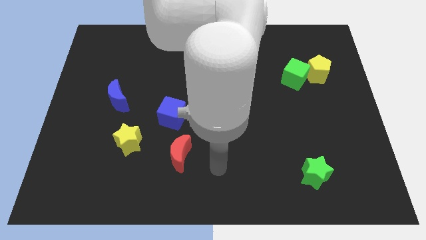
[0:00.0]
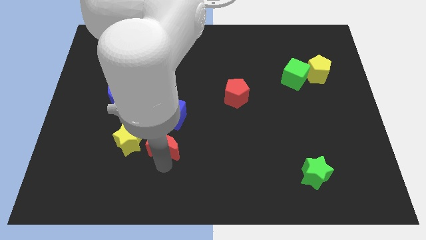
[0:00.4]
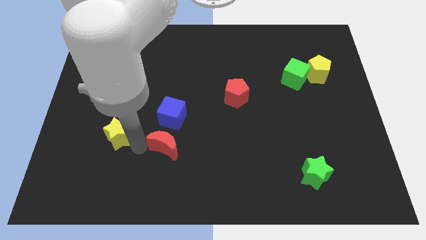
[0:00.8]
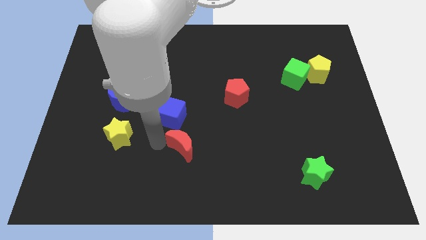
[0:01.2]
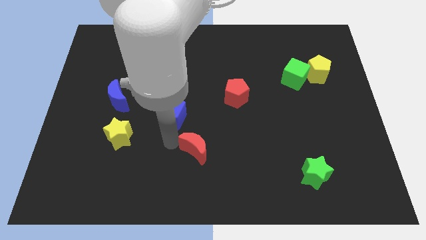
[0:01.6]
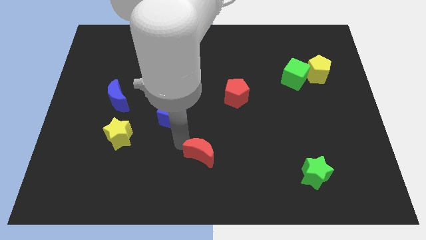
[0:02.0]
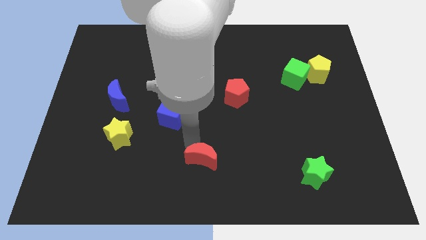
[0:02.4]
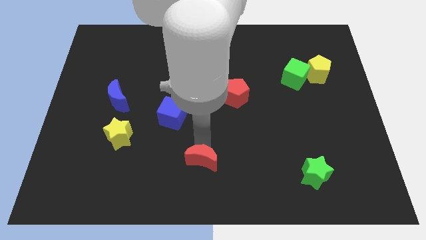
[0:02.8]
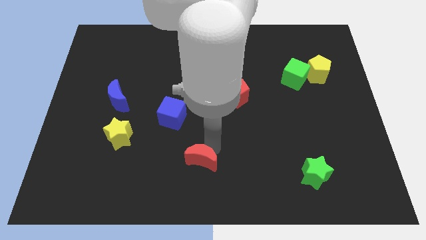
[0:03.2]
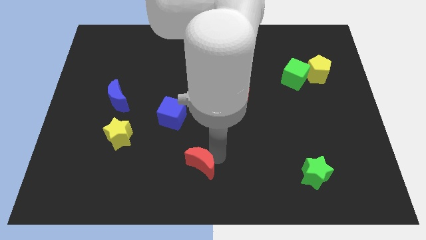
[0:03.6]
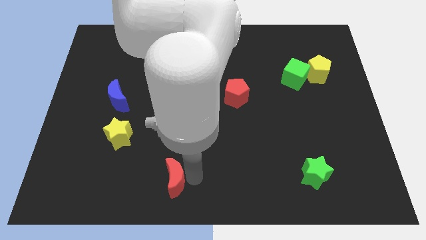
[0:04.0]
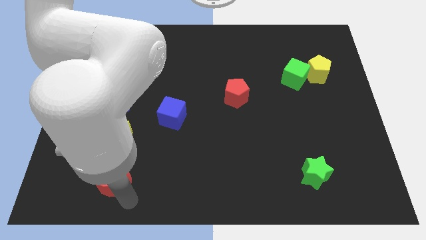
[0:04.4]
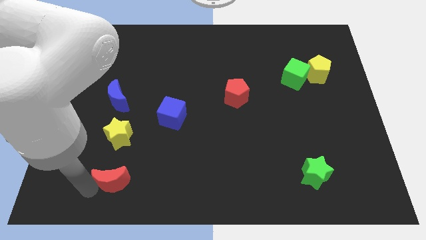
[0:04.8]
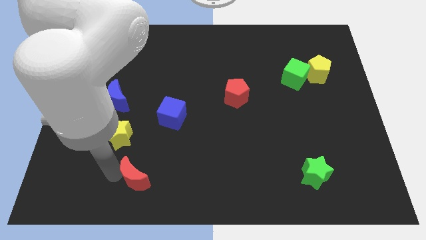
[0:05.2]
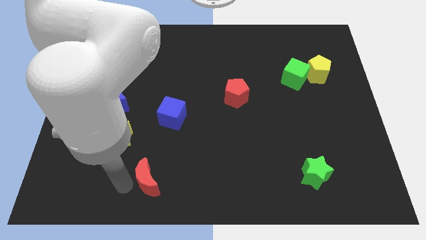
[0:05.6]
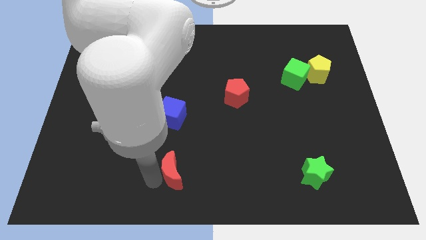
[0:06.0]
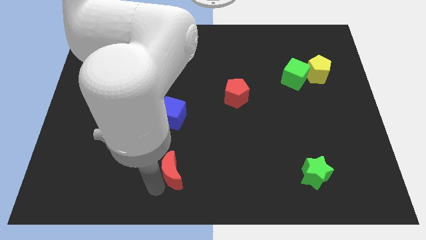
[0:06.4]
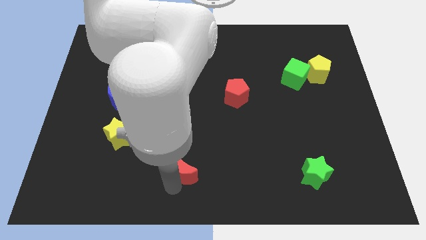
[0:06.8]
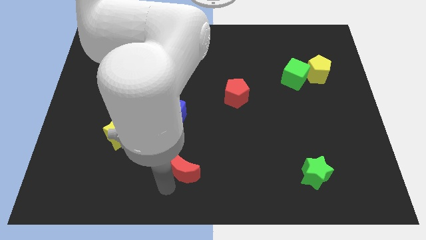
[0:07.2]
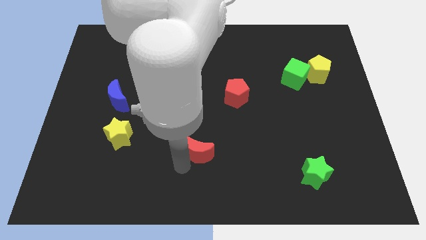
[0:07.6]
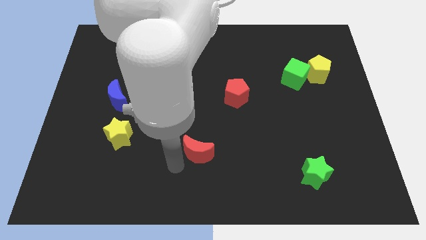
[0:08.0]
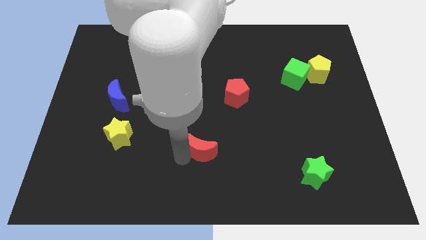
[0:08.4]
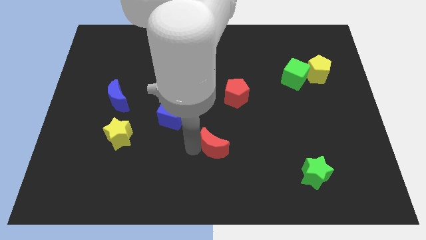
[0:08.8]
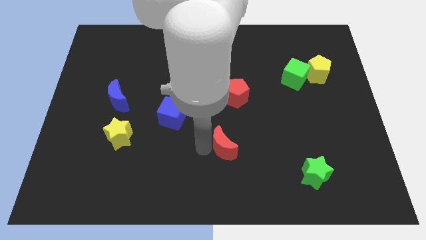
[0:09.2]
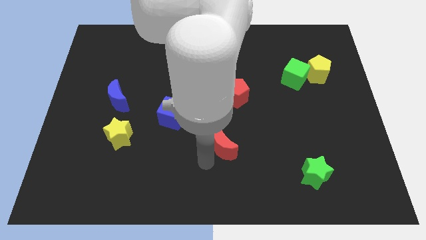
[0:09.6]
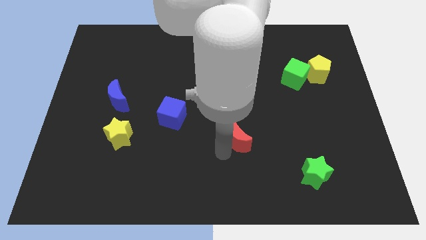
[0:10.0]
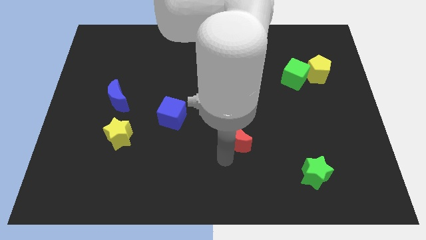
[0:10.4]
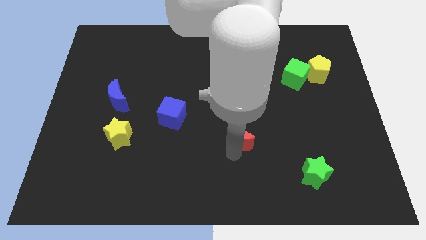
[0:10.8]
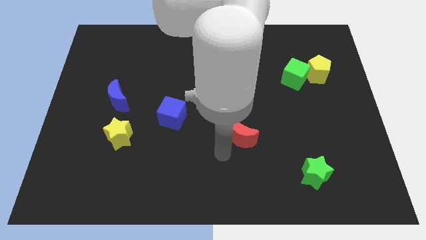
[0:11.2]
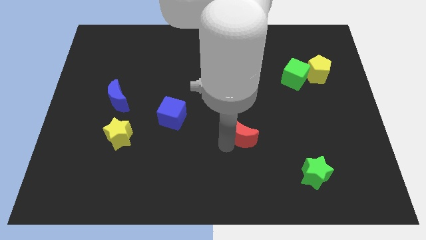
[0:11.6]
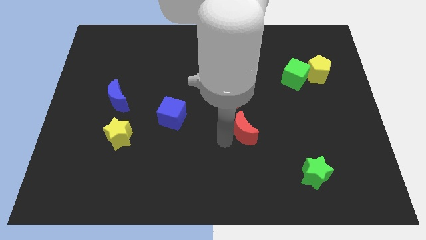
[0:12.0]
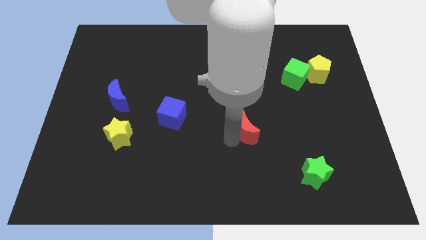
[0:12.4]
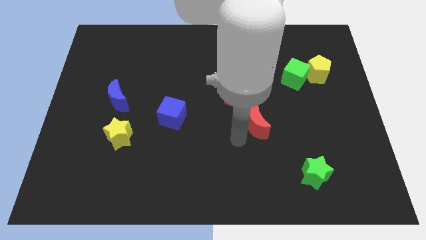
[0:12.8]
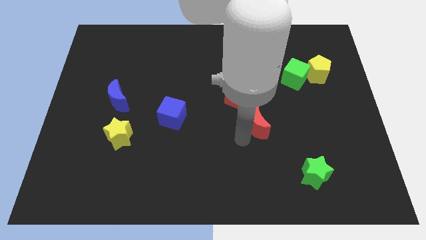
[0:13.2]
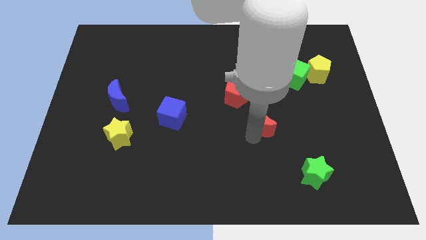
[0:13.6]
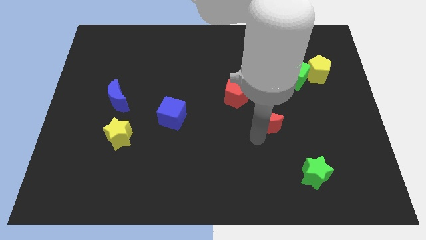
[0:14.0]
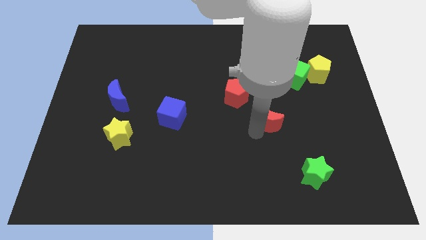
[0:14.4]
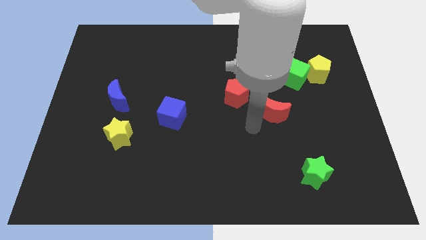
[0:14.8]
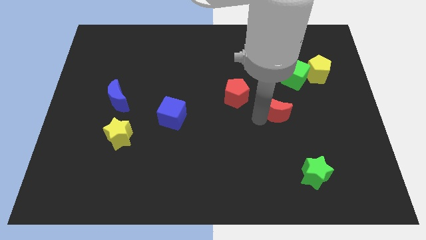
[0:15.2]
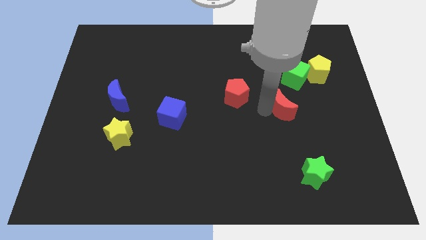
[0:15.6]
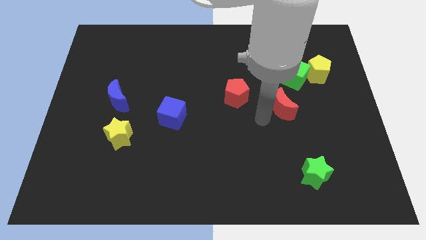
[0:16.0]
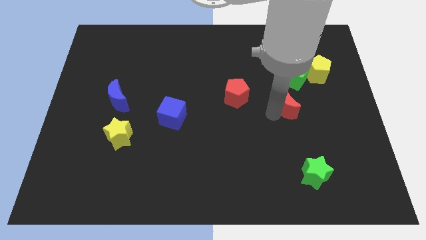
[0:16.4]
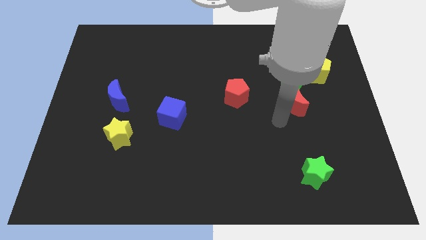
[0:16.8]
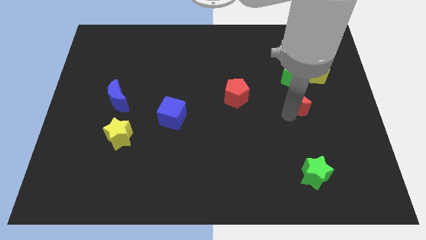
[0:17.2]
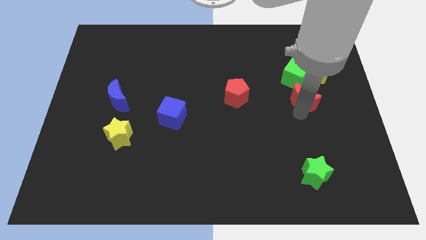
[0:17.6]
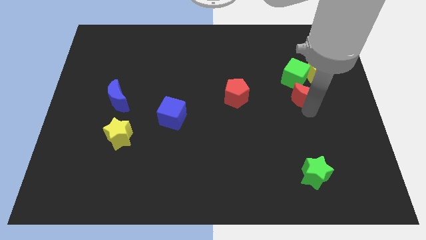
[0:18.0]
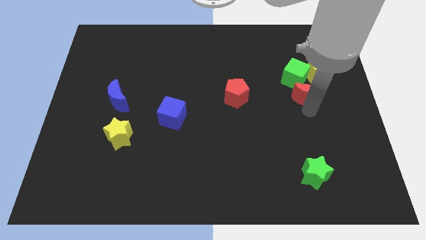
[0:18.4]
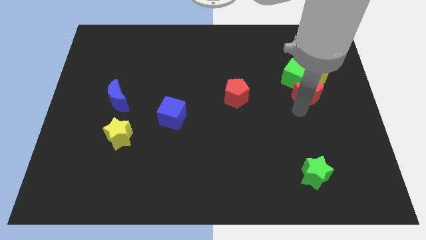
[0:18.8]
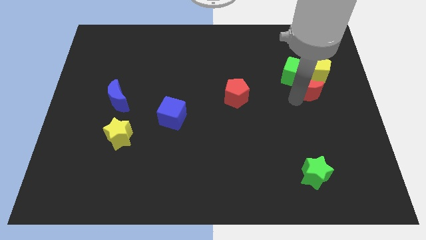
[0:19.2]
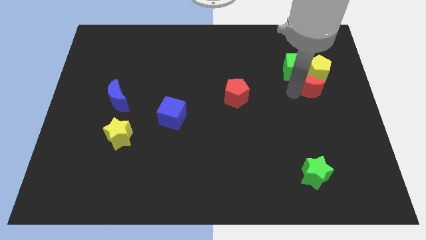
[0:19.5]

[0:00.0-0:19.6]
put the red moon towards the yellow pentagon

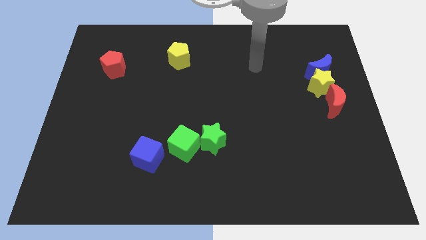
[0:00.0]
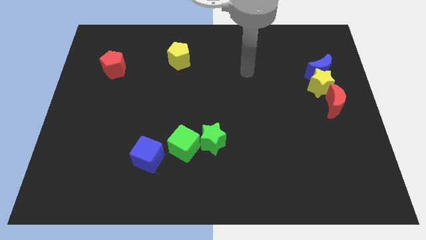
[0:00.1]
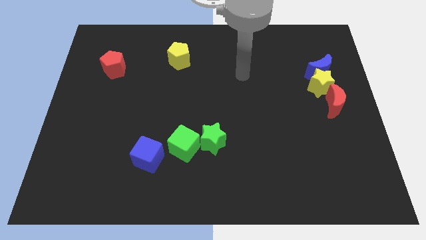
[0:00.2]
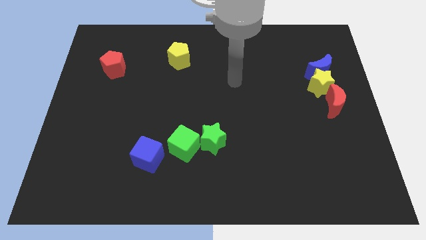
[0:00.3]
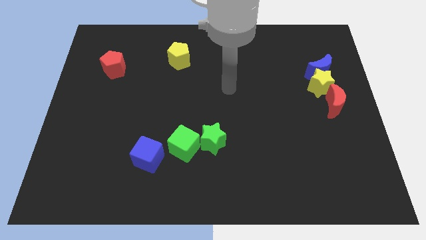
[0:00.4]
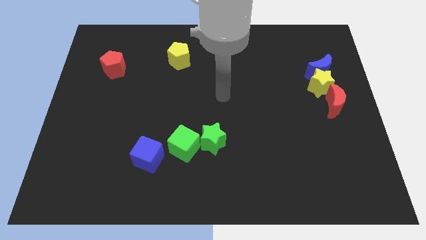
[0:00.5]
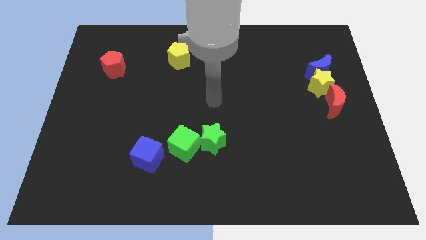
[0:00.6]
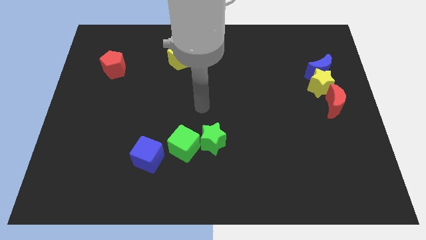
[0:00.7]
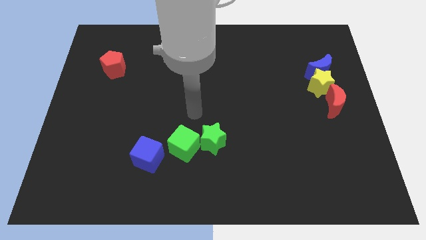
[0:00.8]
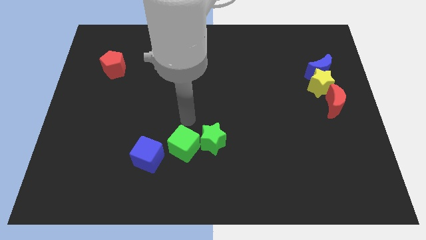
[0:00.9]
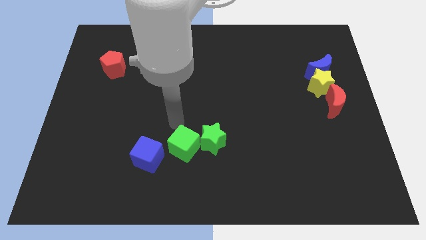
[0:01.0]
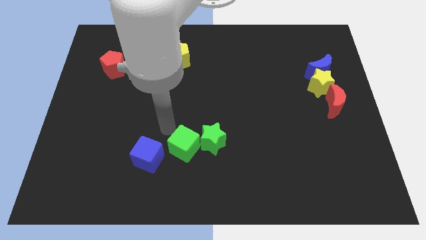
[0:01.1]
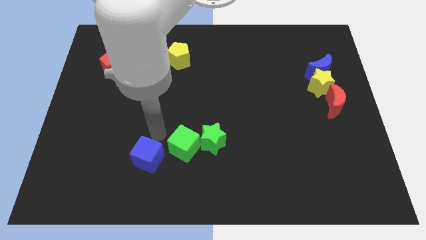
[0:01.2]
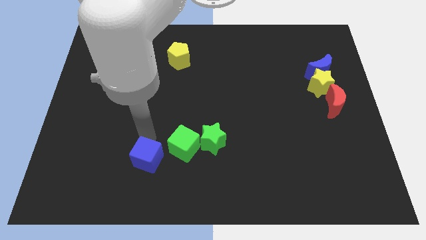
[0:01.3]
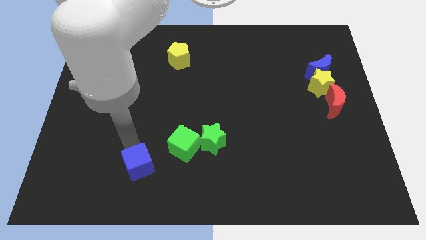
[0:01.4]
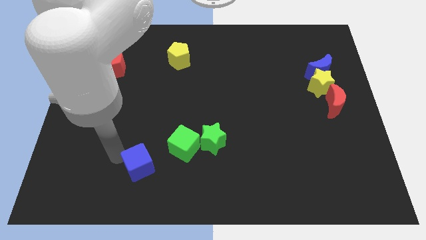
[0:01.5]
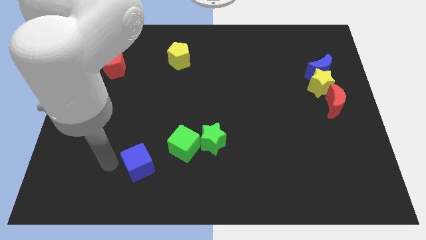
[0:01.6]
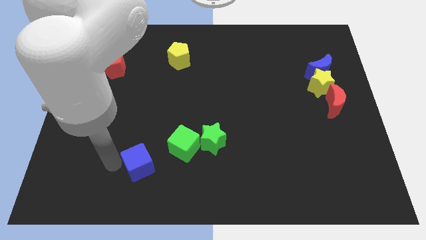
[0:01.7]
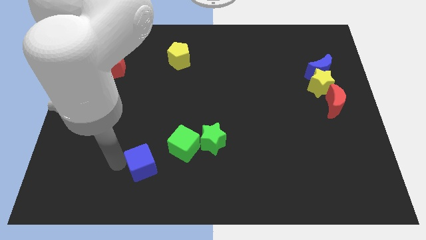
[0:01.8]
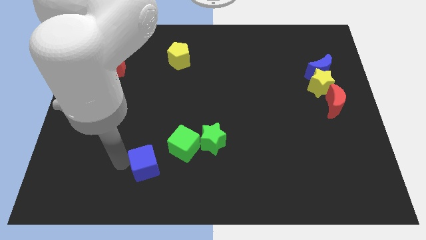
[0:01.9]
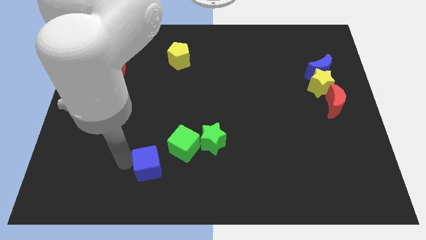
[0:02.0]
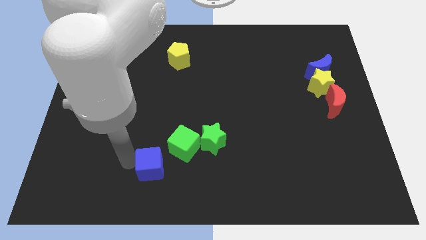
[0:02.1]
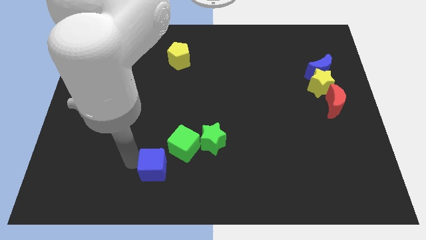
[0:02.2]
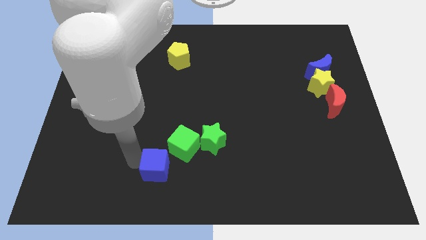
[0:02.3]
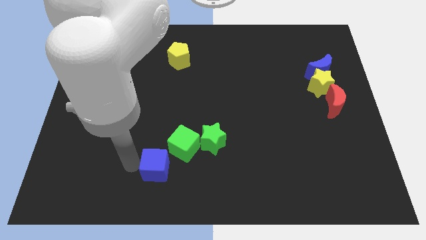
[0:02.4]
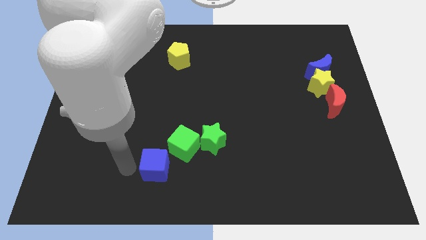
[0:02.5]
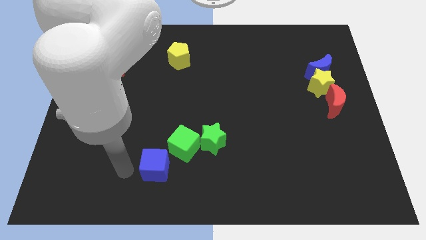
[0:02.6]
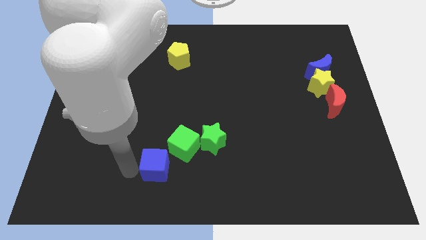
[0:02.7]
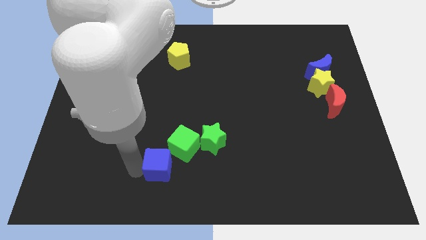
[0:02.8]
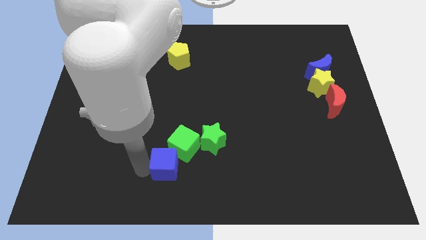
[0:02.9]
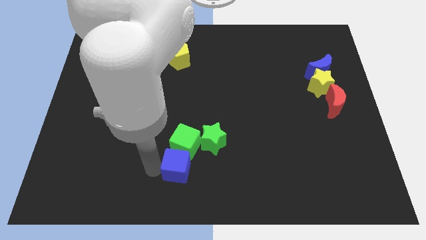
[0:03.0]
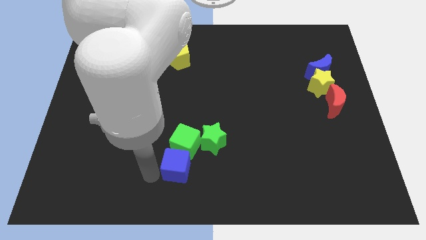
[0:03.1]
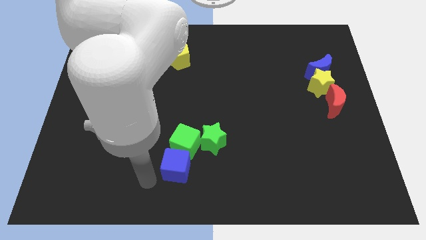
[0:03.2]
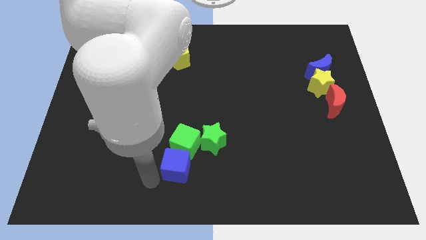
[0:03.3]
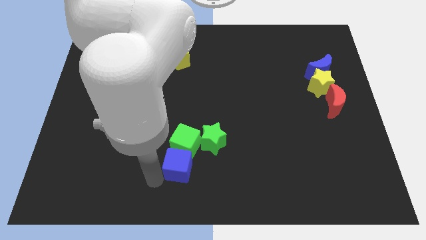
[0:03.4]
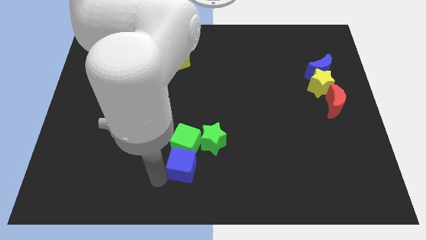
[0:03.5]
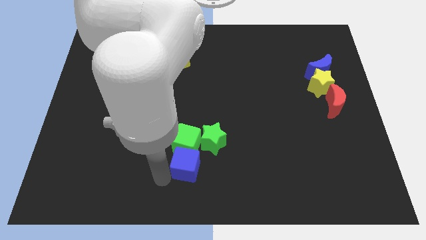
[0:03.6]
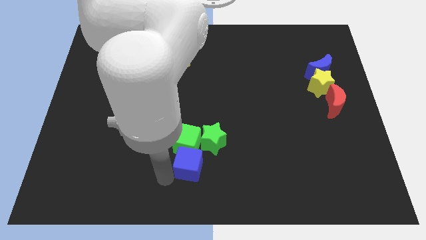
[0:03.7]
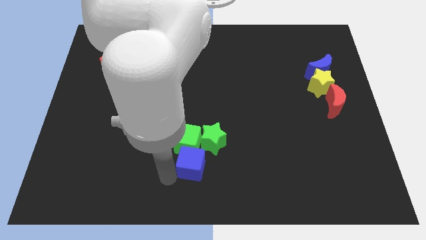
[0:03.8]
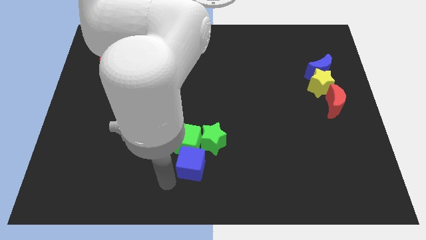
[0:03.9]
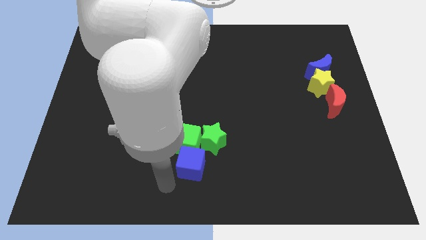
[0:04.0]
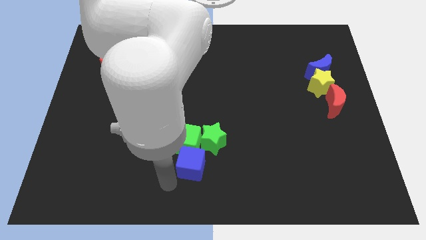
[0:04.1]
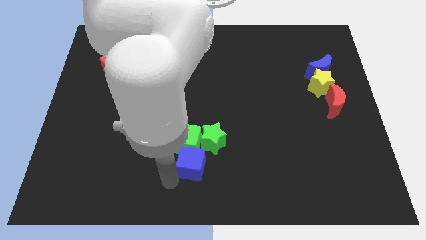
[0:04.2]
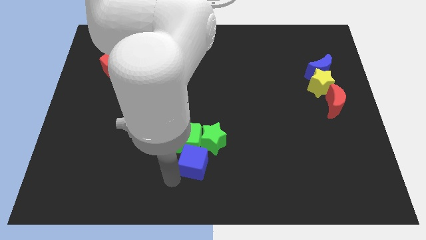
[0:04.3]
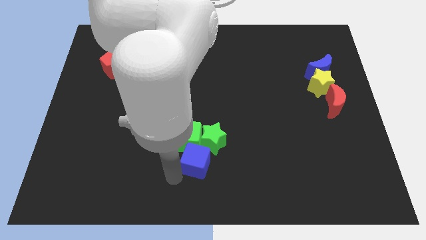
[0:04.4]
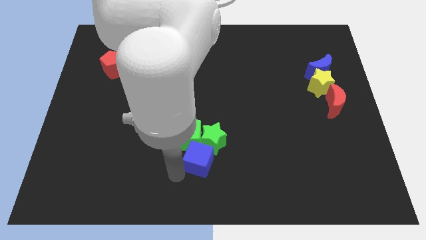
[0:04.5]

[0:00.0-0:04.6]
slide the blue cube close to the green star
